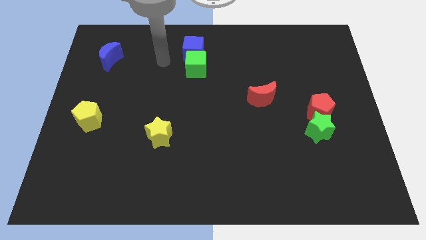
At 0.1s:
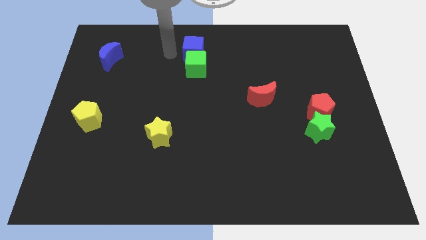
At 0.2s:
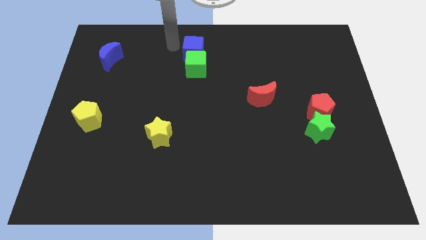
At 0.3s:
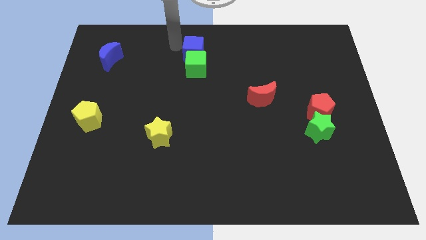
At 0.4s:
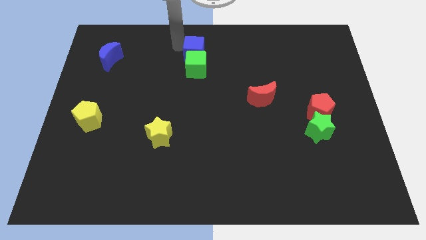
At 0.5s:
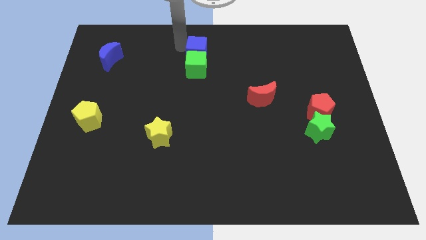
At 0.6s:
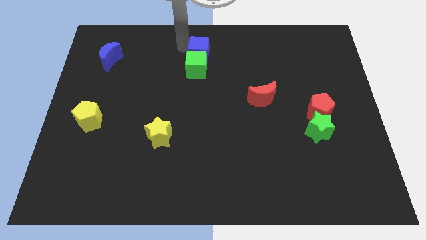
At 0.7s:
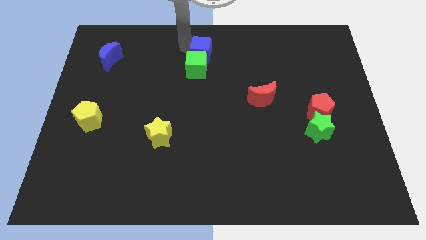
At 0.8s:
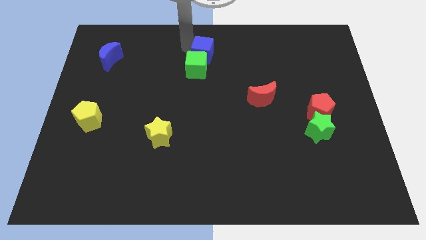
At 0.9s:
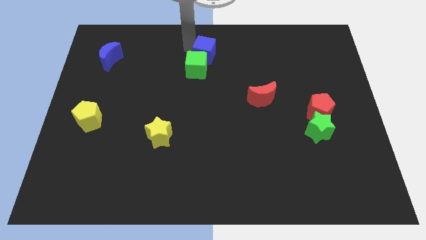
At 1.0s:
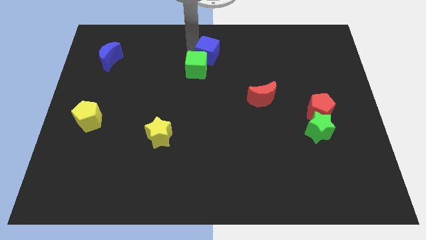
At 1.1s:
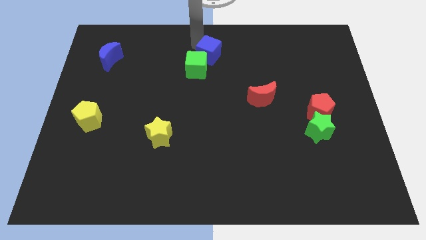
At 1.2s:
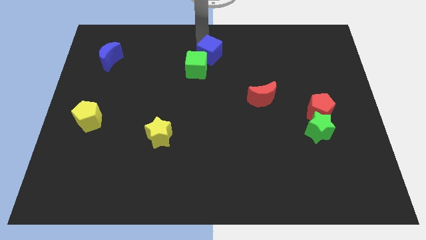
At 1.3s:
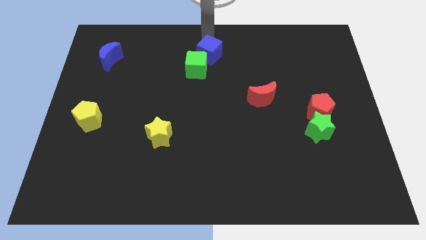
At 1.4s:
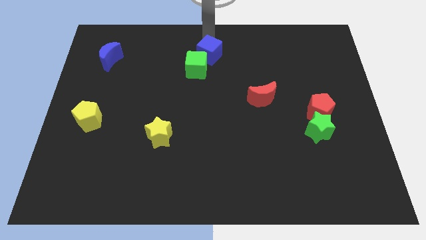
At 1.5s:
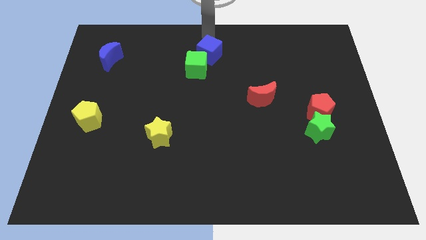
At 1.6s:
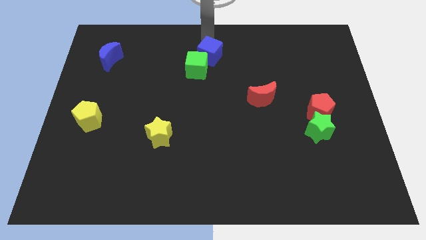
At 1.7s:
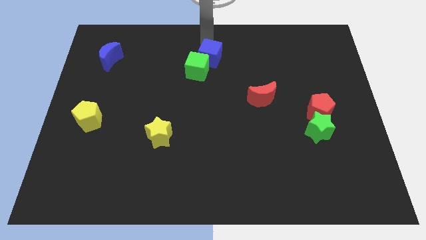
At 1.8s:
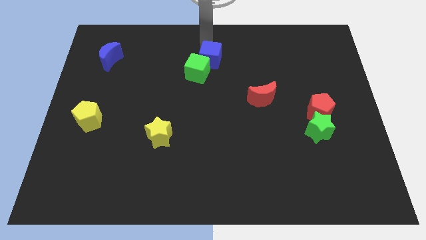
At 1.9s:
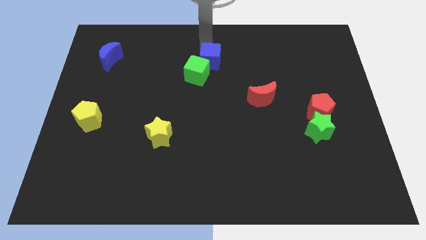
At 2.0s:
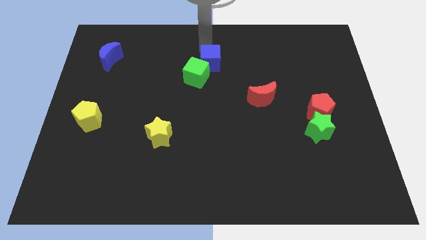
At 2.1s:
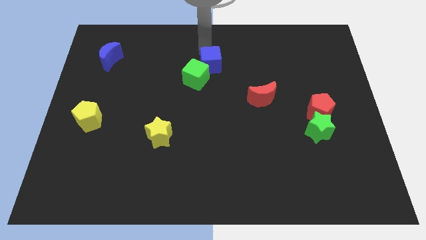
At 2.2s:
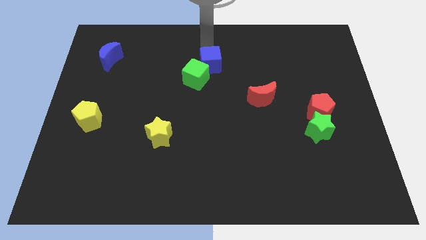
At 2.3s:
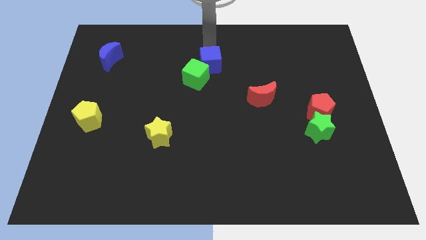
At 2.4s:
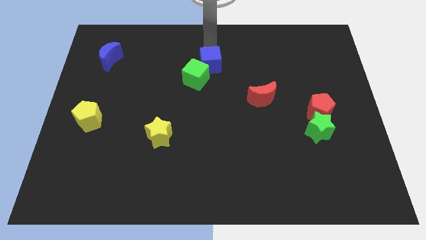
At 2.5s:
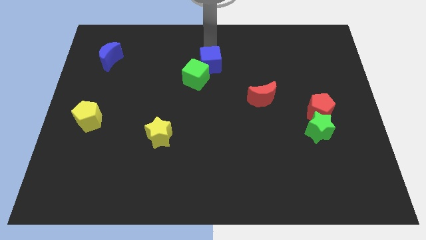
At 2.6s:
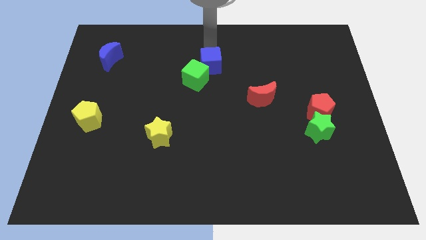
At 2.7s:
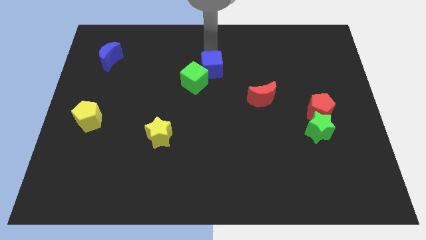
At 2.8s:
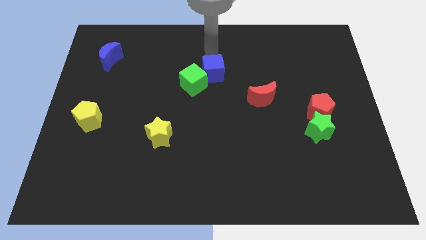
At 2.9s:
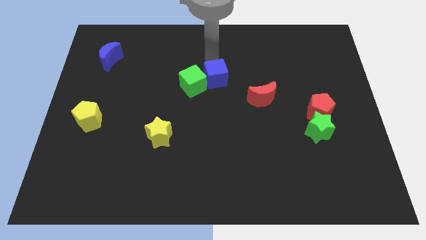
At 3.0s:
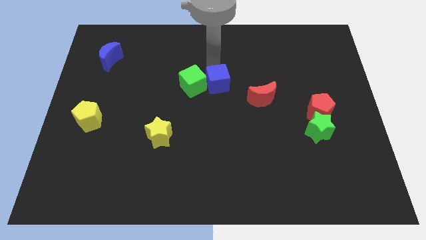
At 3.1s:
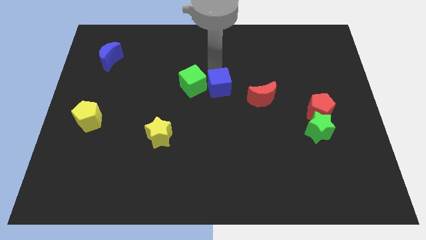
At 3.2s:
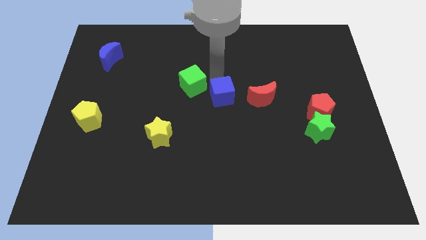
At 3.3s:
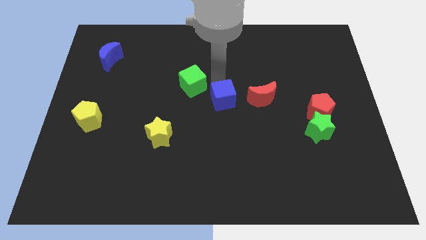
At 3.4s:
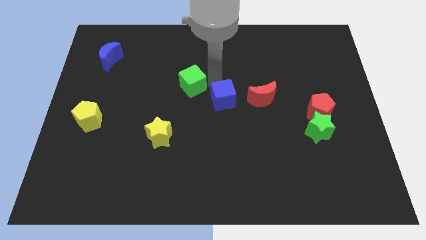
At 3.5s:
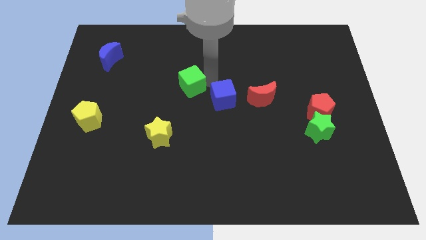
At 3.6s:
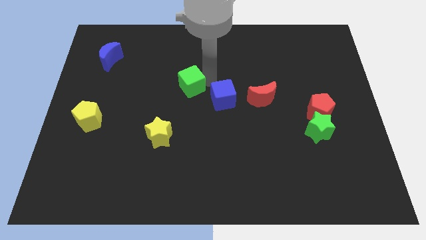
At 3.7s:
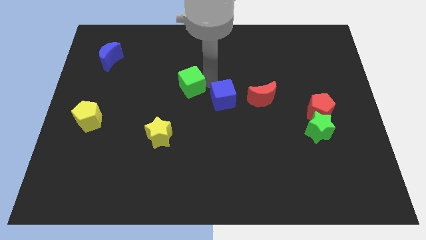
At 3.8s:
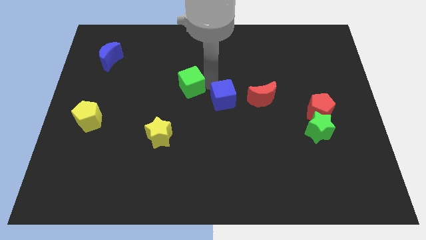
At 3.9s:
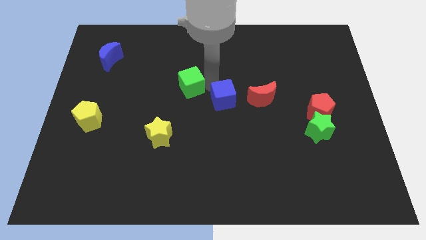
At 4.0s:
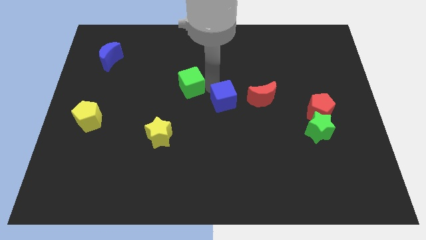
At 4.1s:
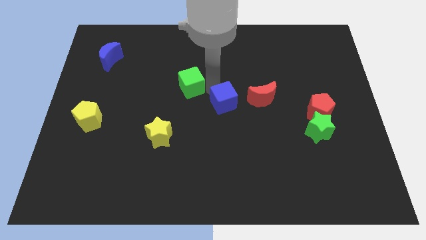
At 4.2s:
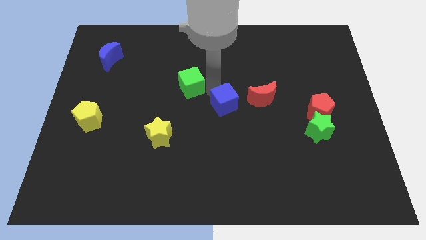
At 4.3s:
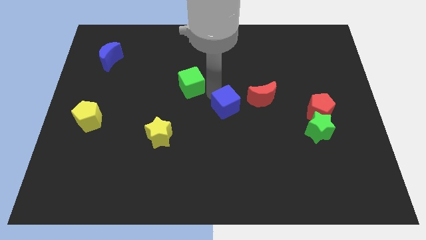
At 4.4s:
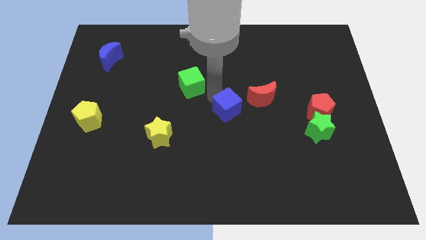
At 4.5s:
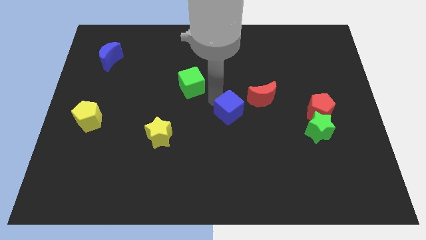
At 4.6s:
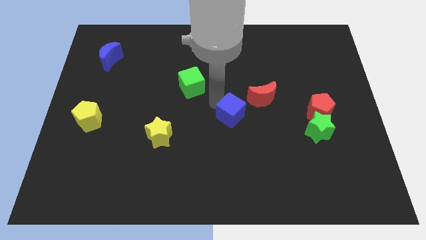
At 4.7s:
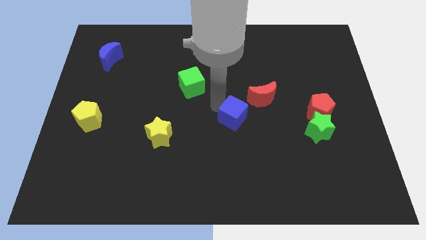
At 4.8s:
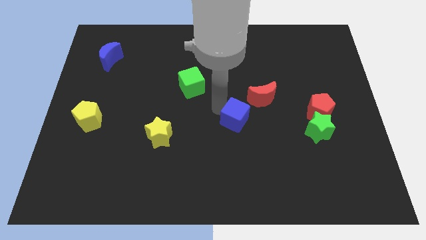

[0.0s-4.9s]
push the blue cube down and to the right diagonally

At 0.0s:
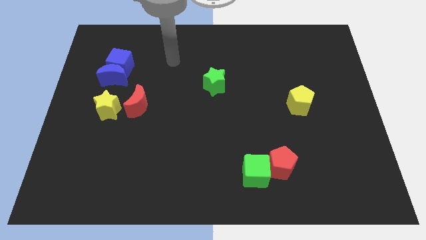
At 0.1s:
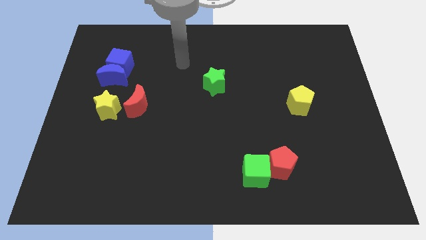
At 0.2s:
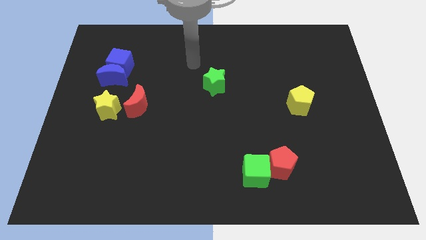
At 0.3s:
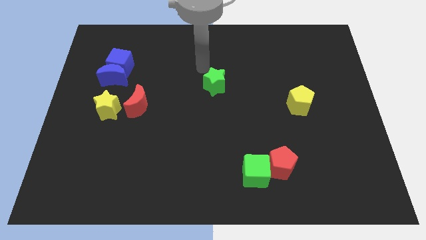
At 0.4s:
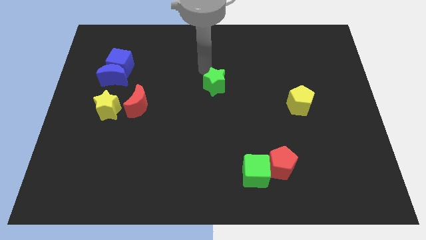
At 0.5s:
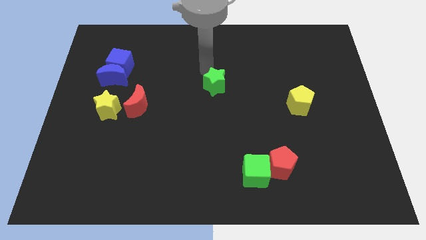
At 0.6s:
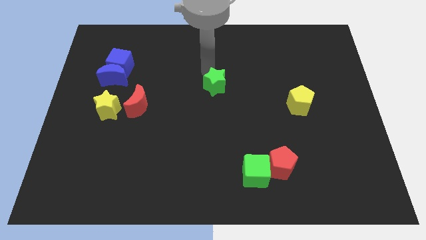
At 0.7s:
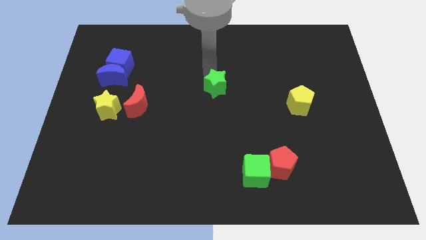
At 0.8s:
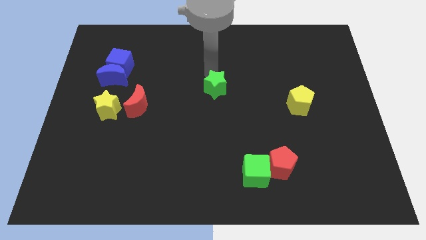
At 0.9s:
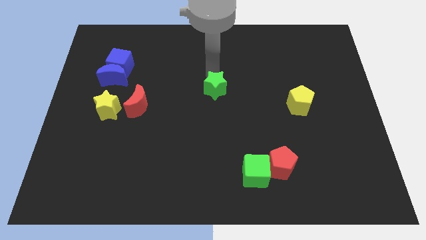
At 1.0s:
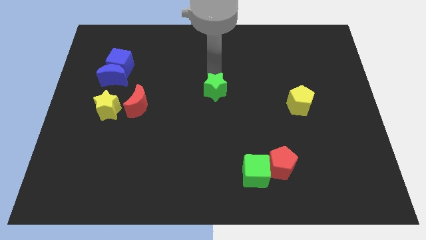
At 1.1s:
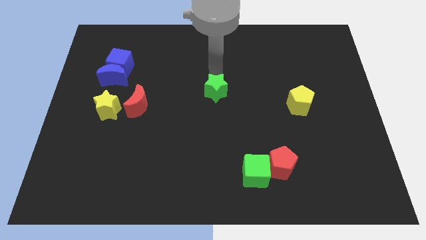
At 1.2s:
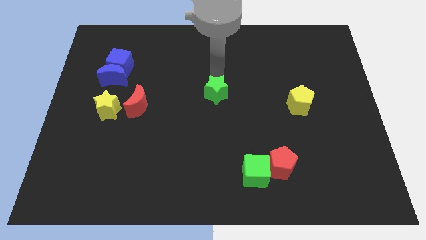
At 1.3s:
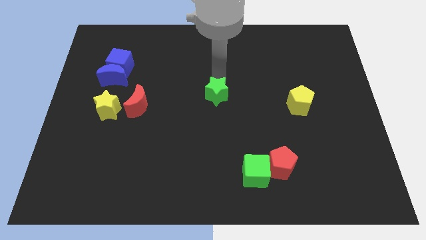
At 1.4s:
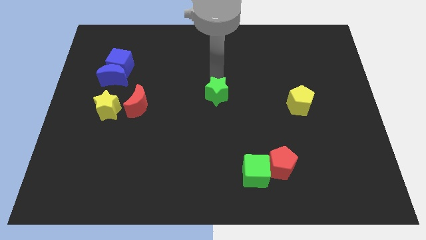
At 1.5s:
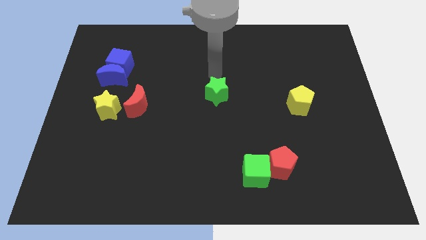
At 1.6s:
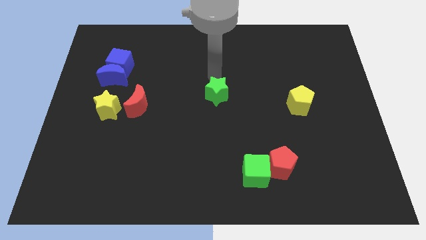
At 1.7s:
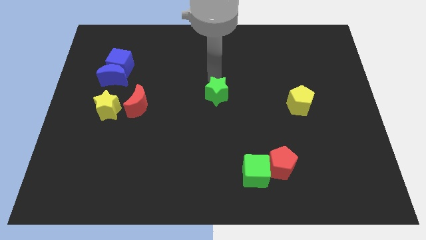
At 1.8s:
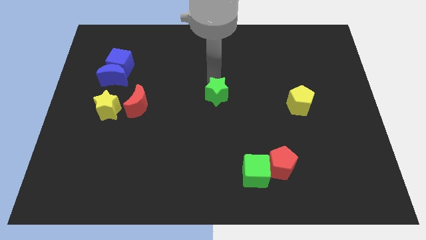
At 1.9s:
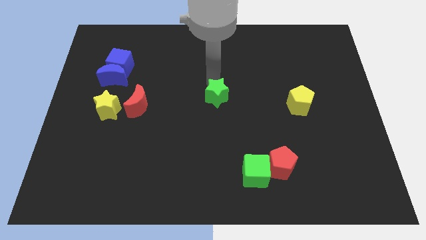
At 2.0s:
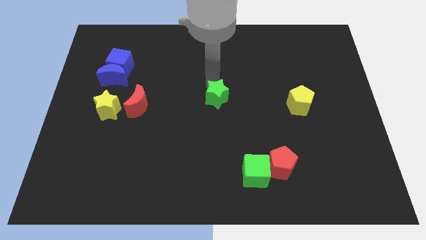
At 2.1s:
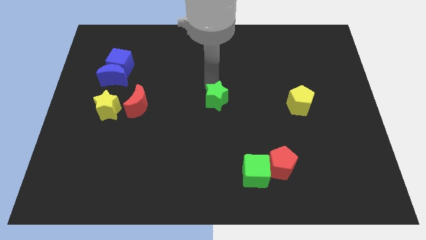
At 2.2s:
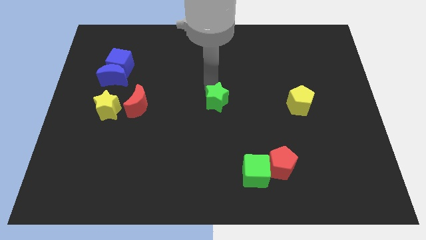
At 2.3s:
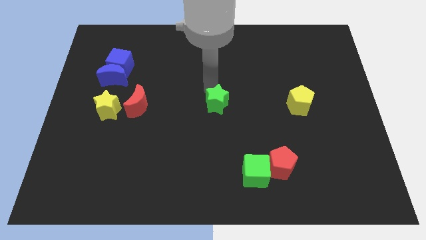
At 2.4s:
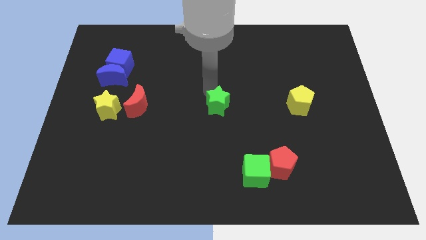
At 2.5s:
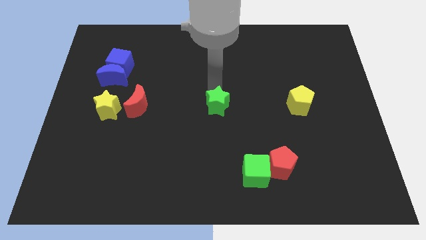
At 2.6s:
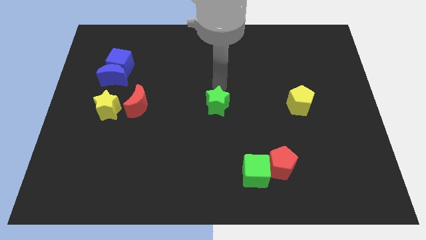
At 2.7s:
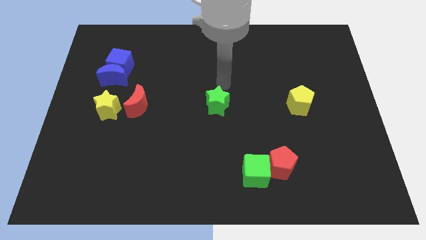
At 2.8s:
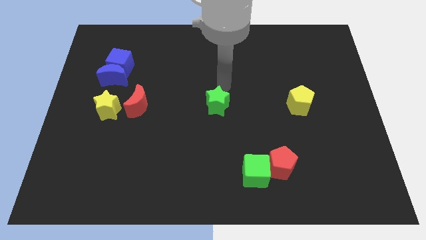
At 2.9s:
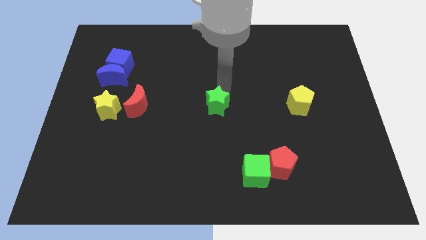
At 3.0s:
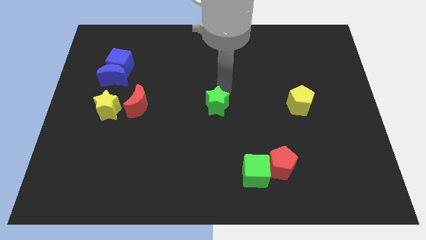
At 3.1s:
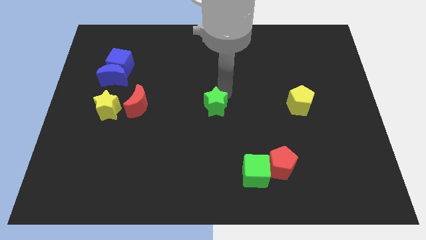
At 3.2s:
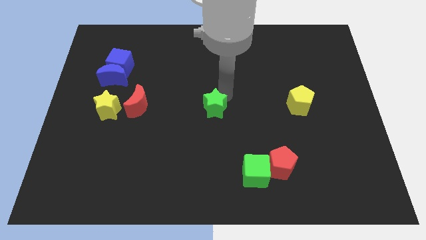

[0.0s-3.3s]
slide the green star downwards a bit

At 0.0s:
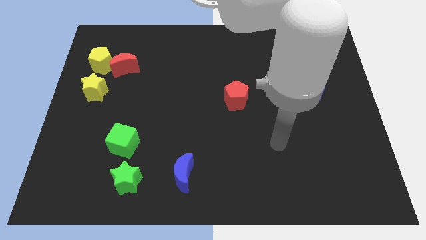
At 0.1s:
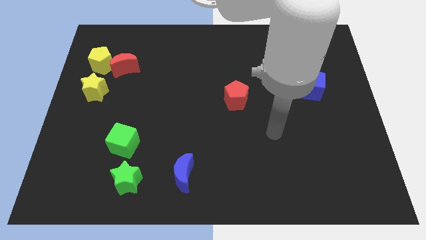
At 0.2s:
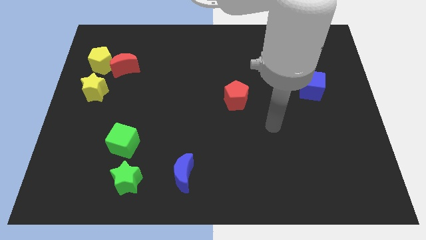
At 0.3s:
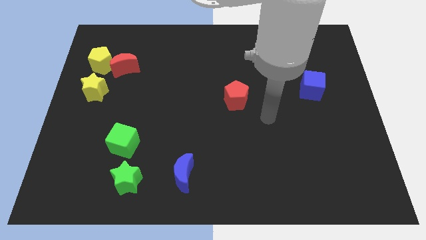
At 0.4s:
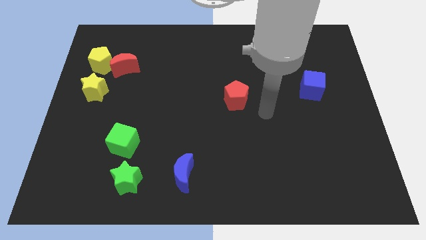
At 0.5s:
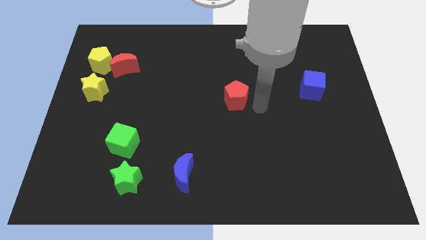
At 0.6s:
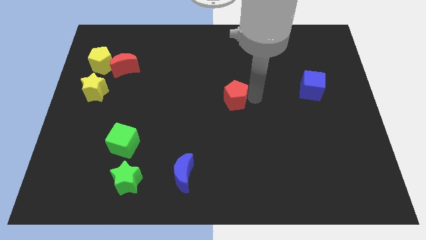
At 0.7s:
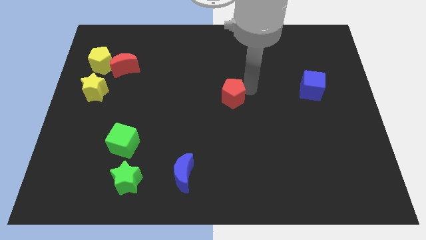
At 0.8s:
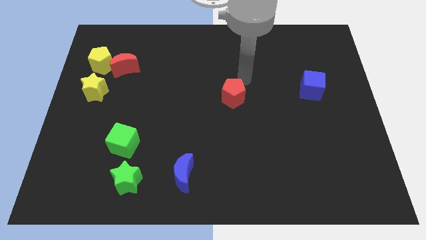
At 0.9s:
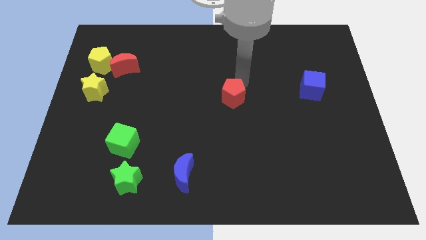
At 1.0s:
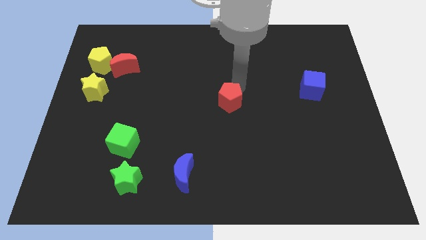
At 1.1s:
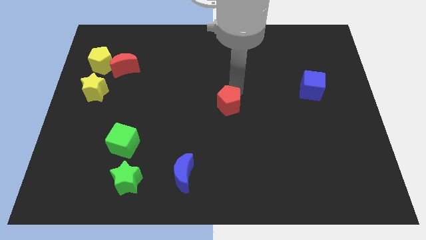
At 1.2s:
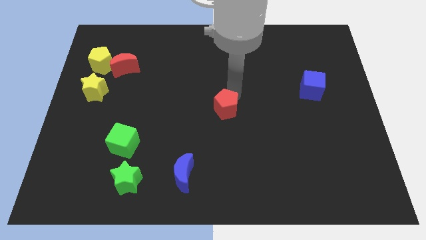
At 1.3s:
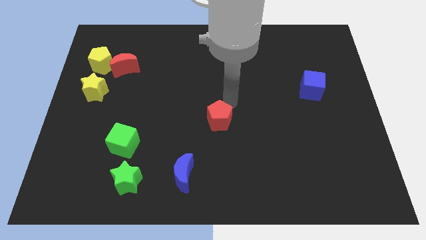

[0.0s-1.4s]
slide the red pentagon down and to the left a little bit
